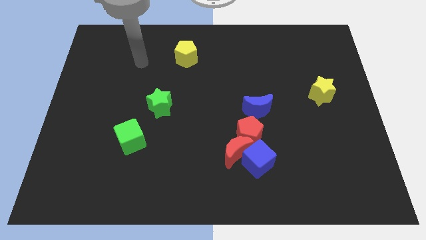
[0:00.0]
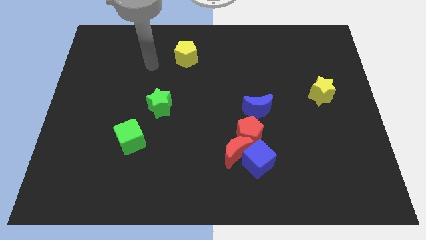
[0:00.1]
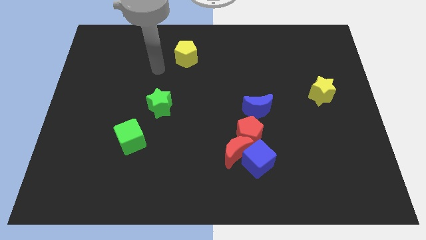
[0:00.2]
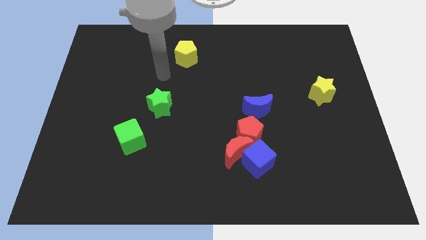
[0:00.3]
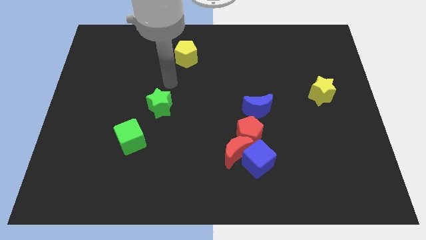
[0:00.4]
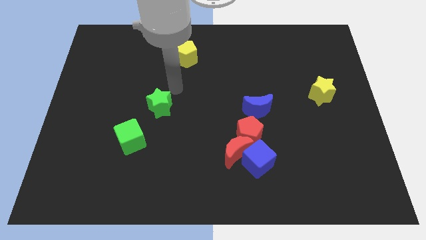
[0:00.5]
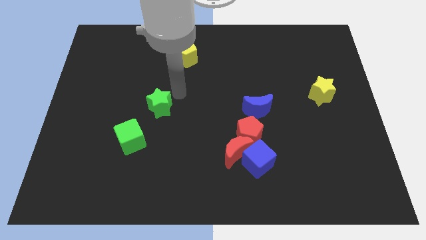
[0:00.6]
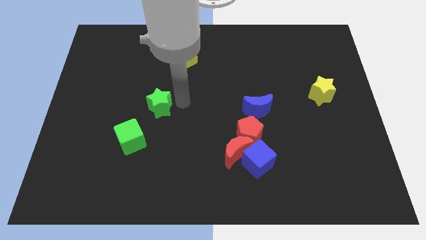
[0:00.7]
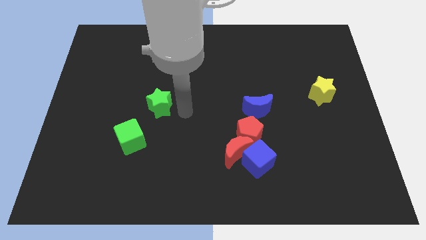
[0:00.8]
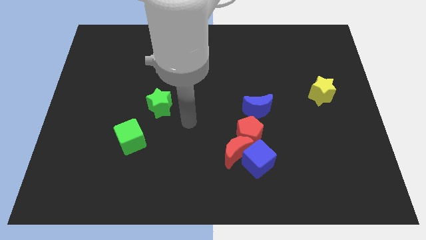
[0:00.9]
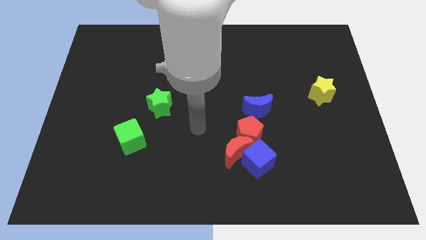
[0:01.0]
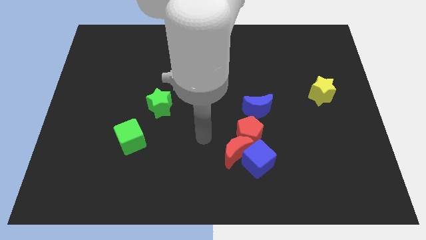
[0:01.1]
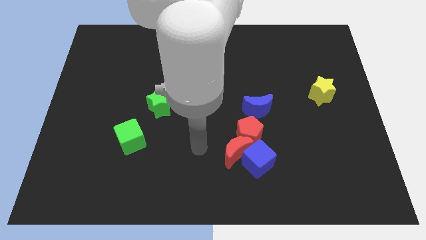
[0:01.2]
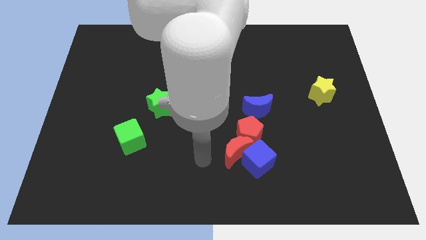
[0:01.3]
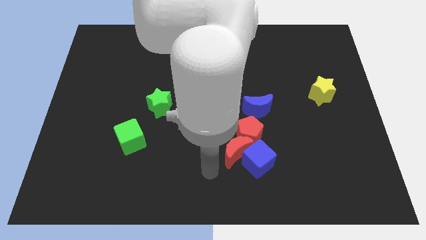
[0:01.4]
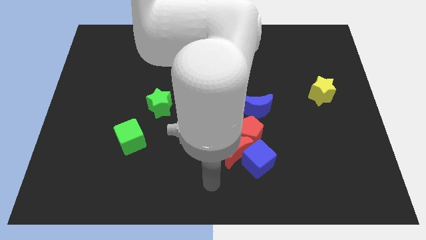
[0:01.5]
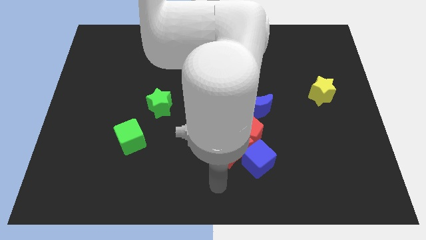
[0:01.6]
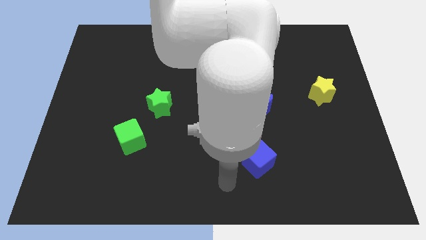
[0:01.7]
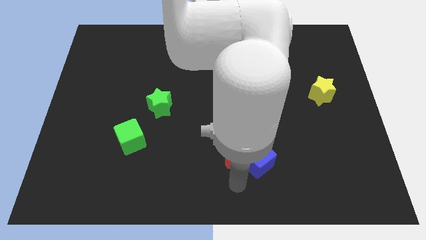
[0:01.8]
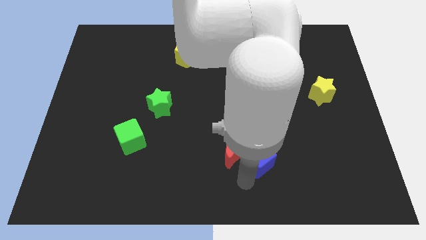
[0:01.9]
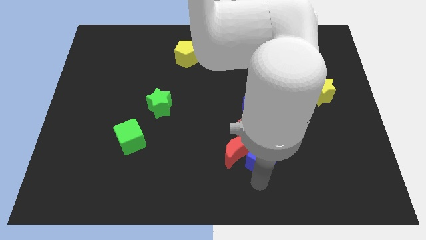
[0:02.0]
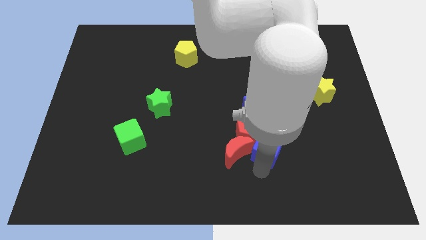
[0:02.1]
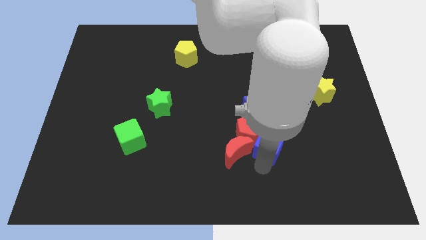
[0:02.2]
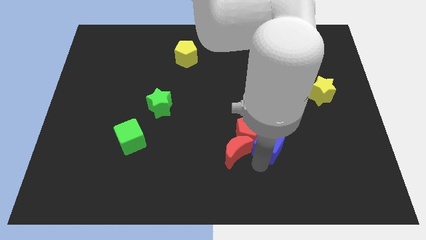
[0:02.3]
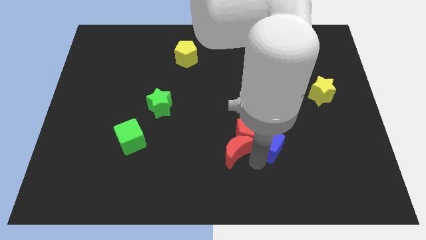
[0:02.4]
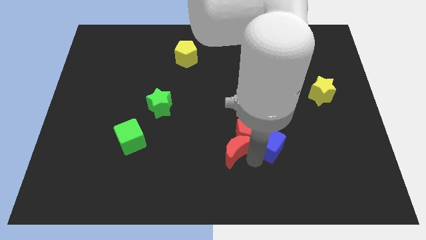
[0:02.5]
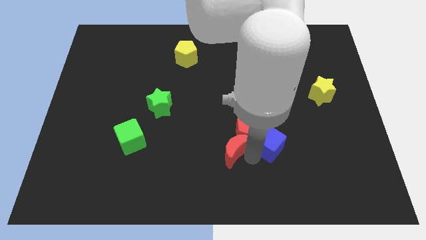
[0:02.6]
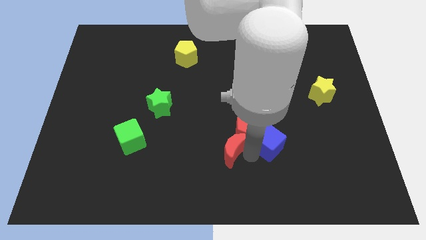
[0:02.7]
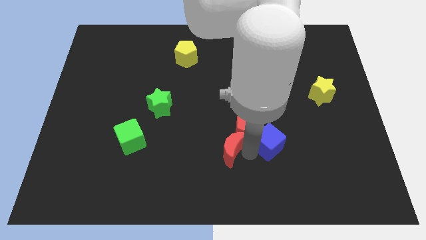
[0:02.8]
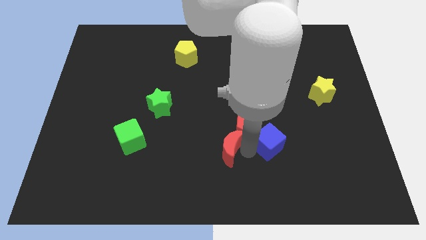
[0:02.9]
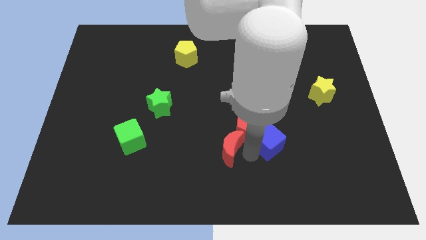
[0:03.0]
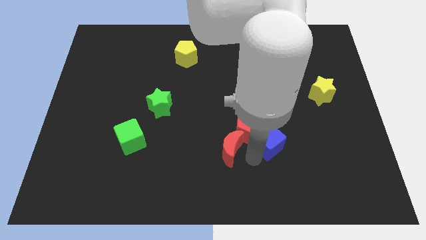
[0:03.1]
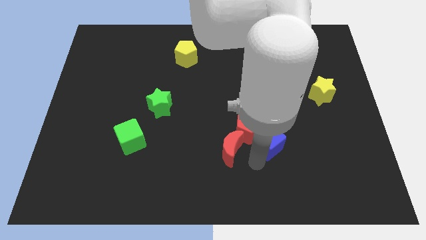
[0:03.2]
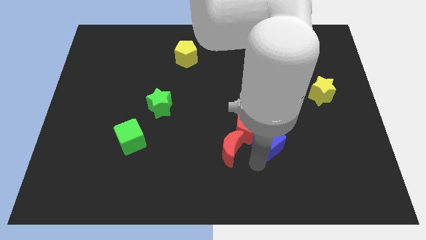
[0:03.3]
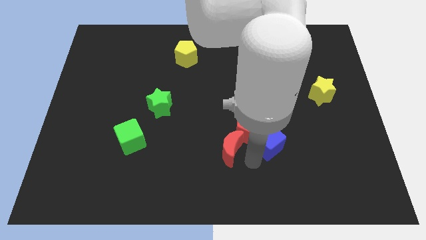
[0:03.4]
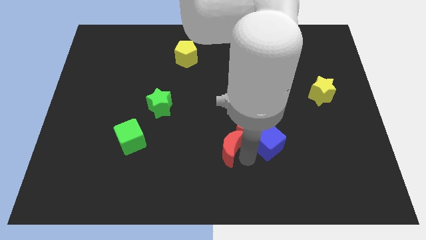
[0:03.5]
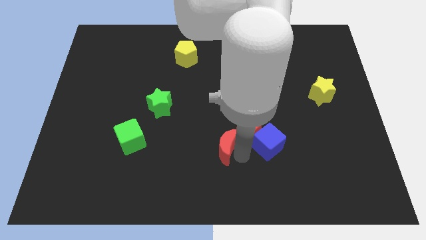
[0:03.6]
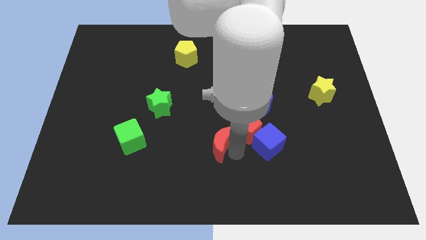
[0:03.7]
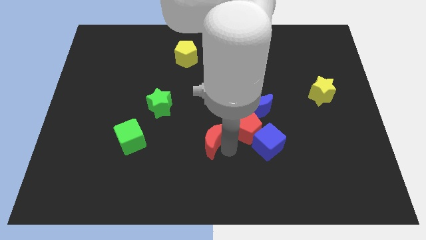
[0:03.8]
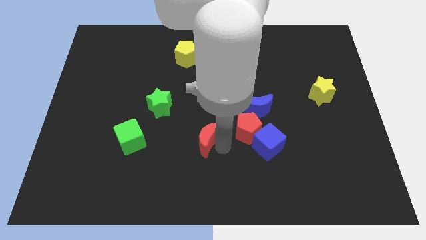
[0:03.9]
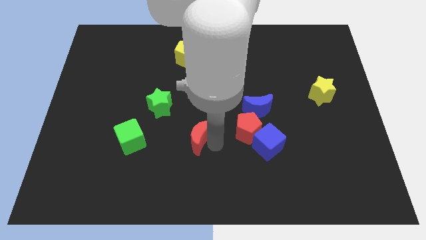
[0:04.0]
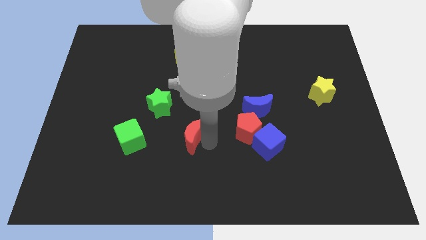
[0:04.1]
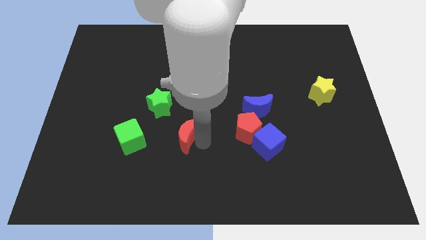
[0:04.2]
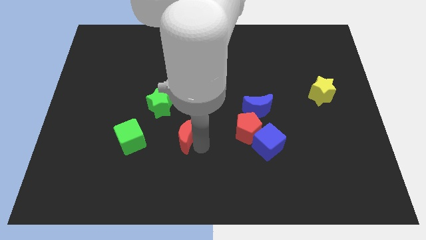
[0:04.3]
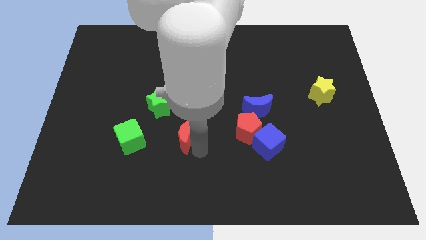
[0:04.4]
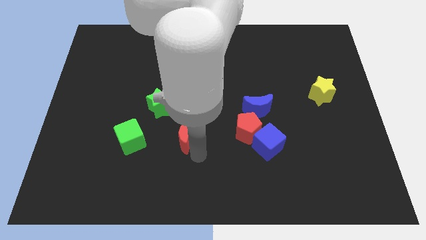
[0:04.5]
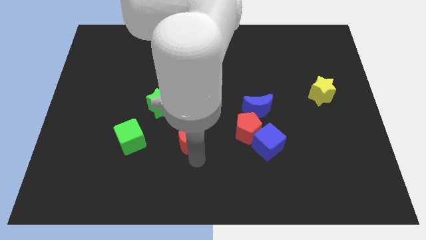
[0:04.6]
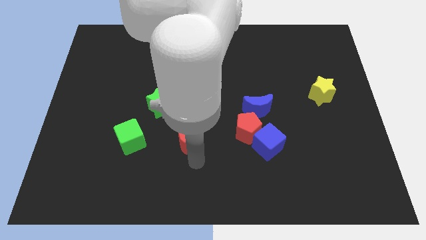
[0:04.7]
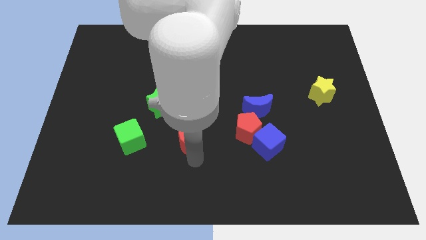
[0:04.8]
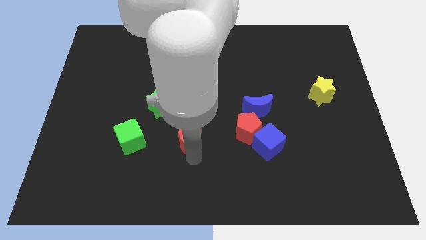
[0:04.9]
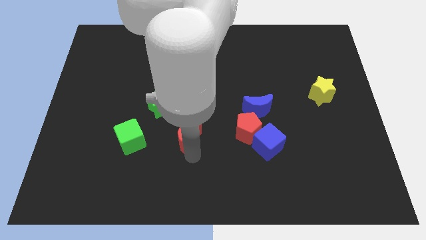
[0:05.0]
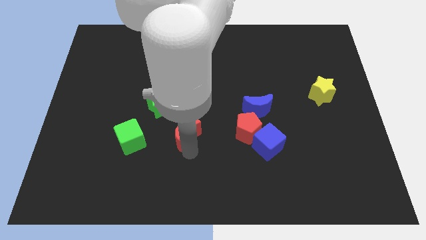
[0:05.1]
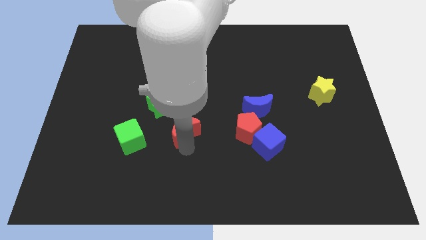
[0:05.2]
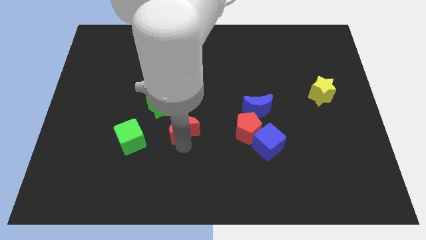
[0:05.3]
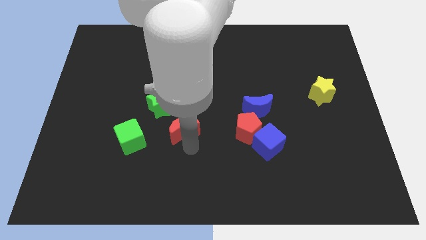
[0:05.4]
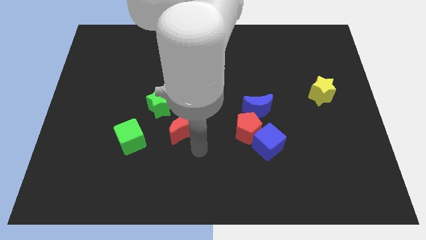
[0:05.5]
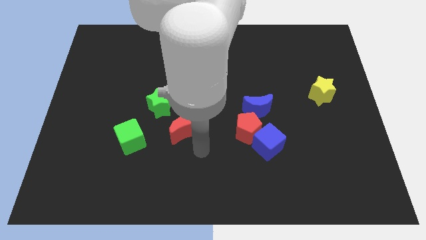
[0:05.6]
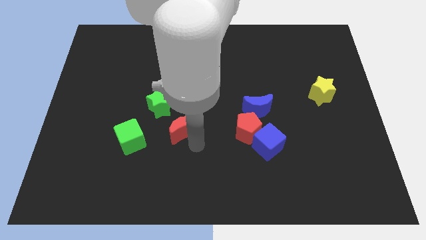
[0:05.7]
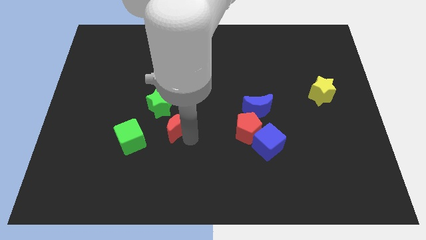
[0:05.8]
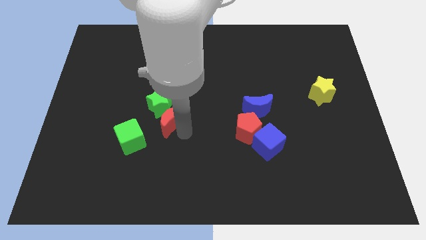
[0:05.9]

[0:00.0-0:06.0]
move the red moon towards the green star

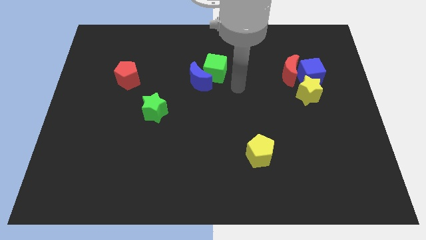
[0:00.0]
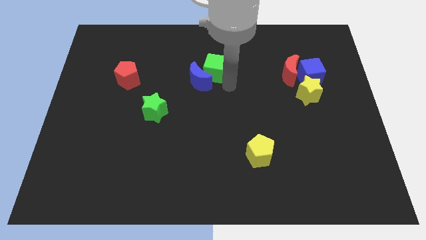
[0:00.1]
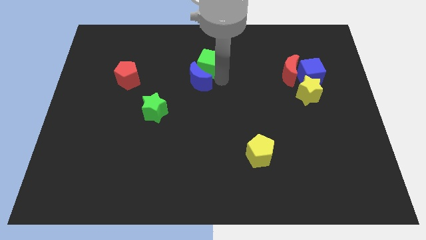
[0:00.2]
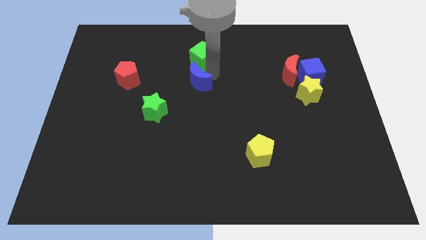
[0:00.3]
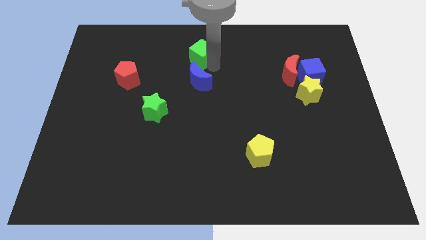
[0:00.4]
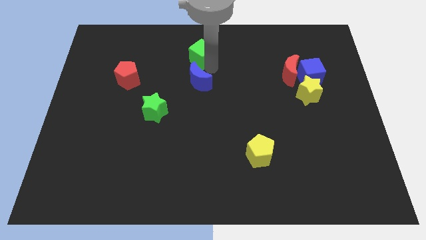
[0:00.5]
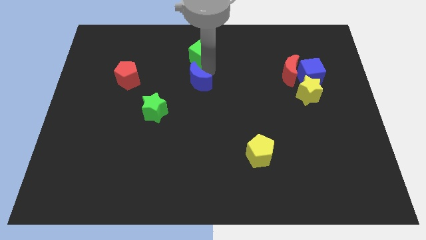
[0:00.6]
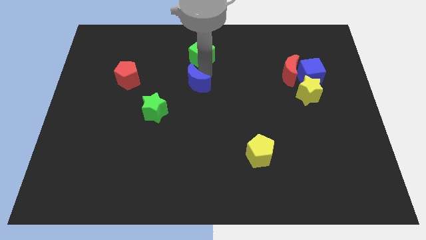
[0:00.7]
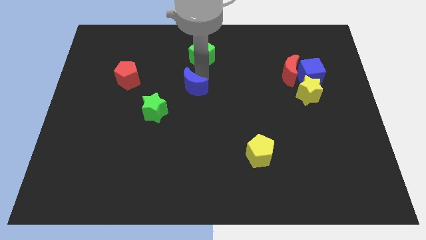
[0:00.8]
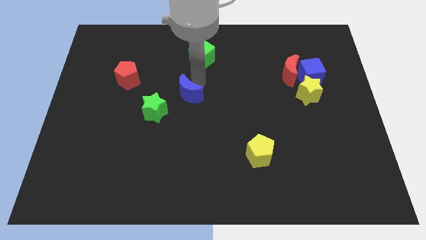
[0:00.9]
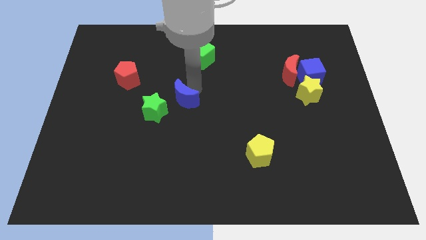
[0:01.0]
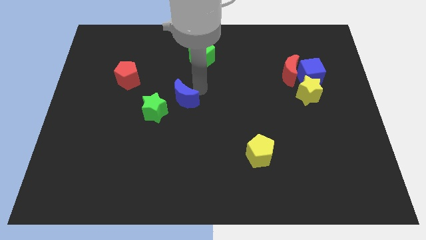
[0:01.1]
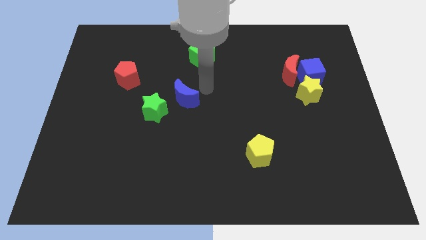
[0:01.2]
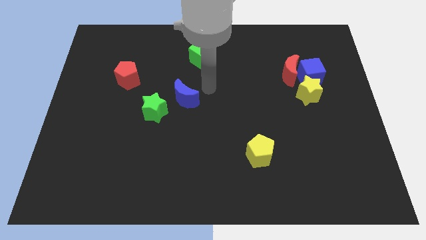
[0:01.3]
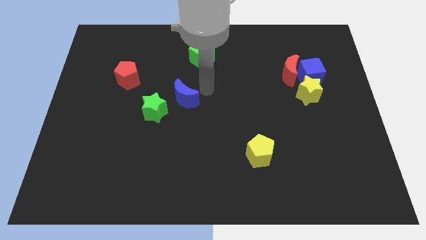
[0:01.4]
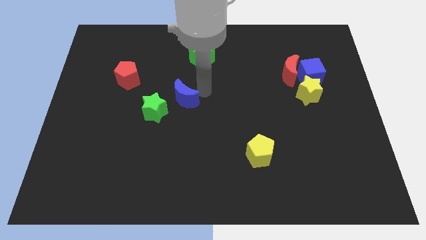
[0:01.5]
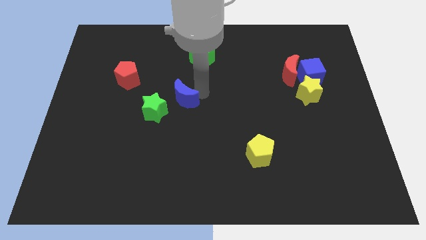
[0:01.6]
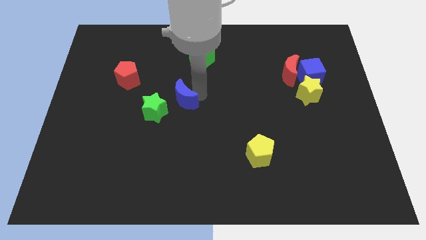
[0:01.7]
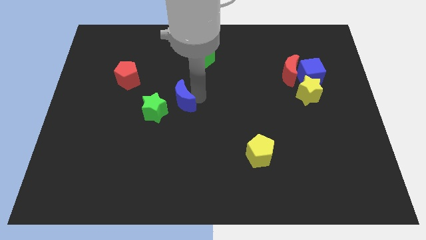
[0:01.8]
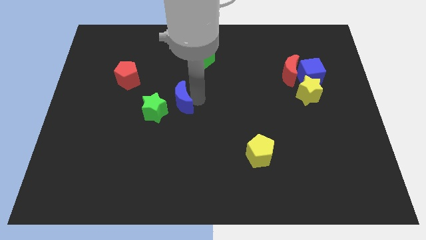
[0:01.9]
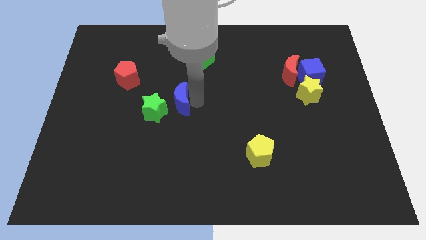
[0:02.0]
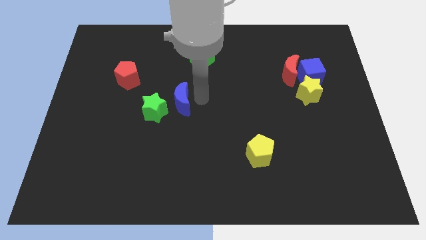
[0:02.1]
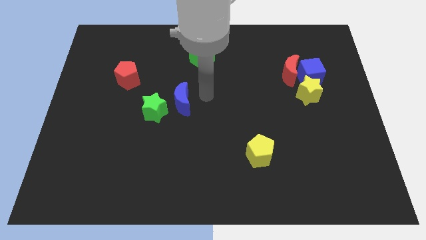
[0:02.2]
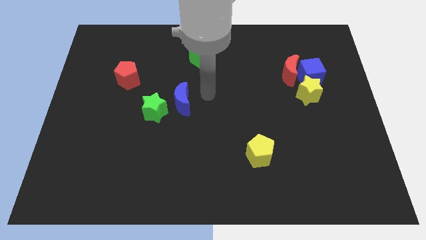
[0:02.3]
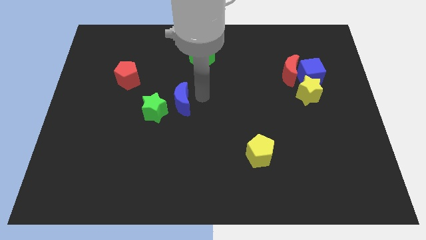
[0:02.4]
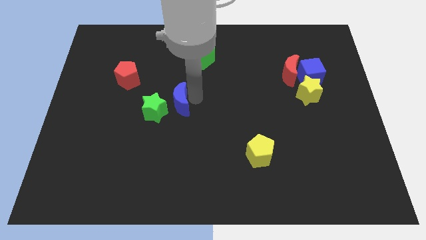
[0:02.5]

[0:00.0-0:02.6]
slide the blue moon towards the green star
